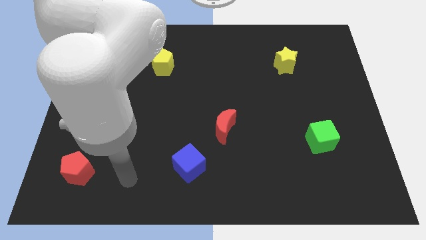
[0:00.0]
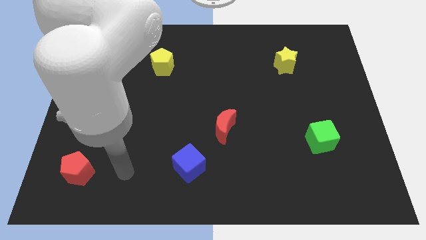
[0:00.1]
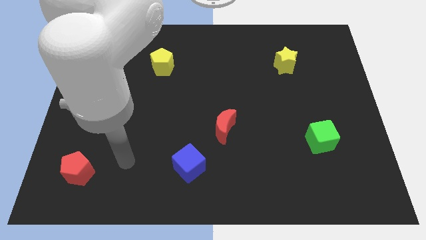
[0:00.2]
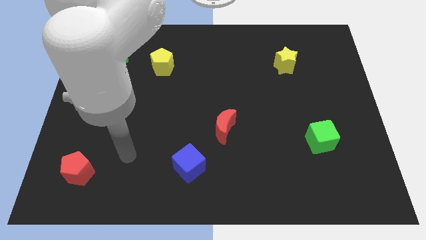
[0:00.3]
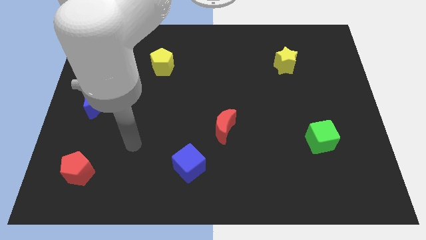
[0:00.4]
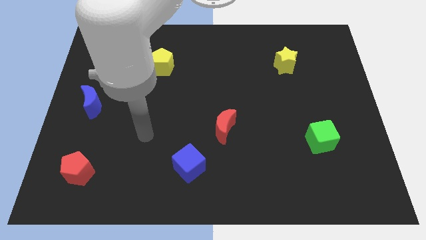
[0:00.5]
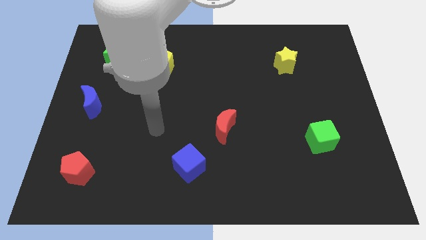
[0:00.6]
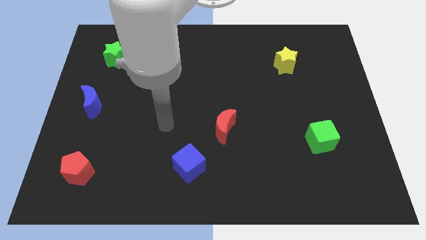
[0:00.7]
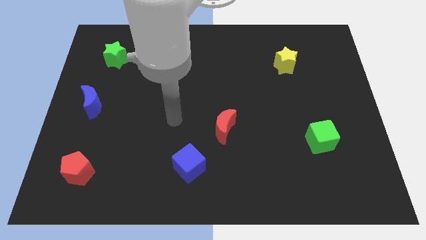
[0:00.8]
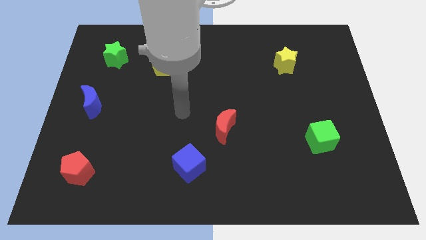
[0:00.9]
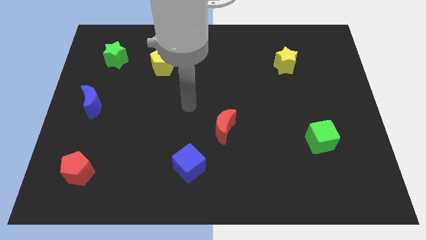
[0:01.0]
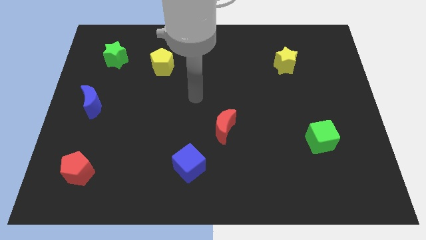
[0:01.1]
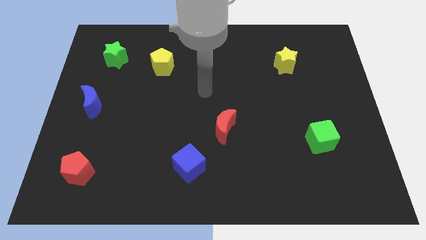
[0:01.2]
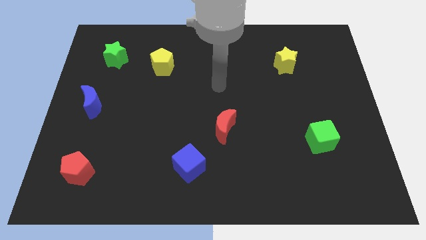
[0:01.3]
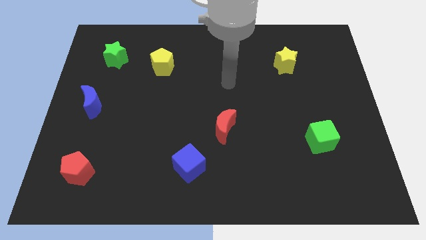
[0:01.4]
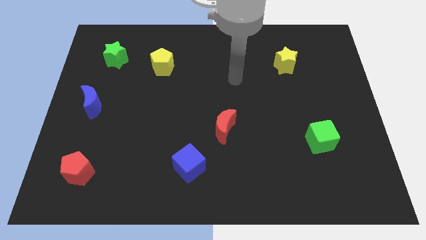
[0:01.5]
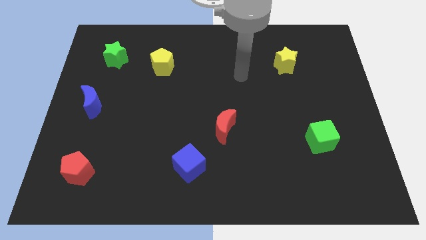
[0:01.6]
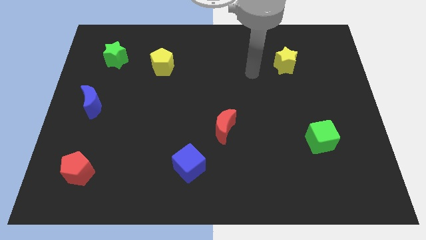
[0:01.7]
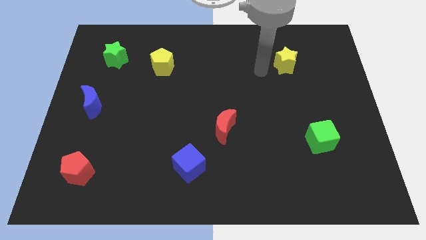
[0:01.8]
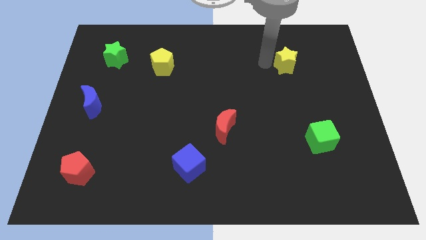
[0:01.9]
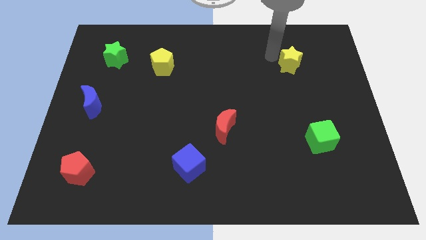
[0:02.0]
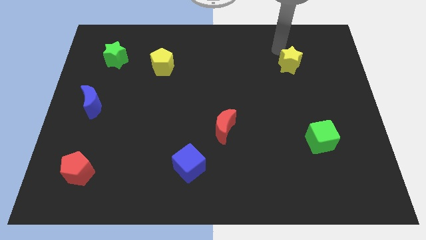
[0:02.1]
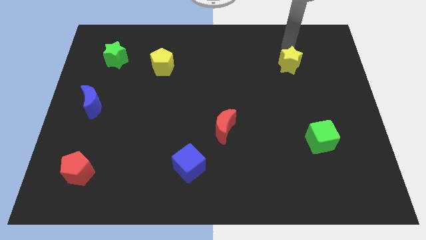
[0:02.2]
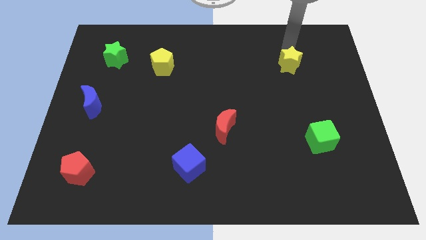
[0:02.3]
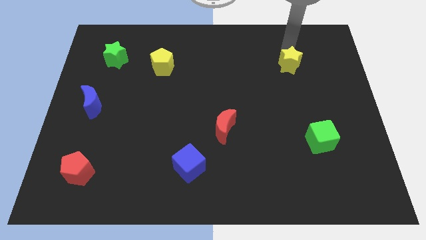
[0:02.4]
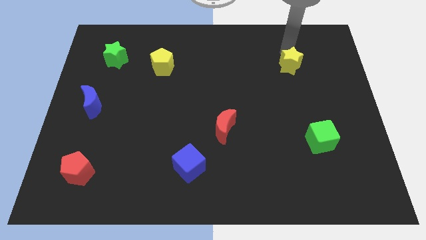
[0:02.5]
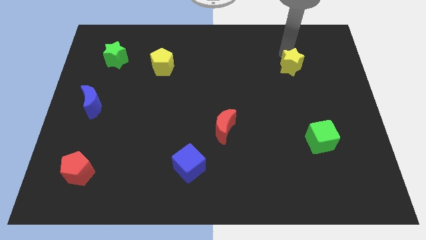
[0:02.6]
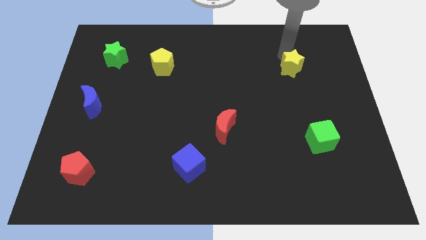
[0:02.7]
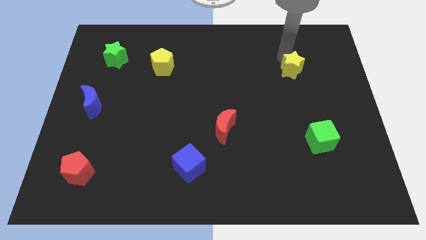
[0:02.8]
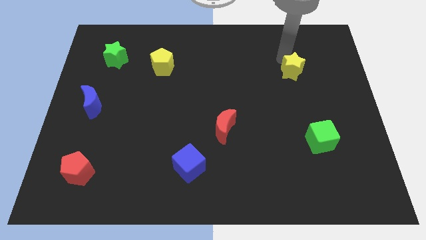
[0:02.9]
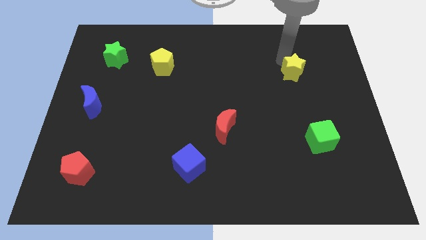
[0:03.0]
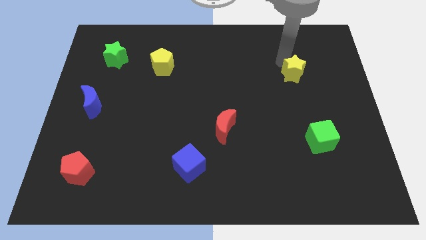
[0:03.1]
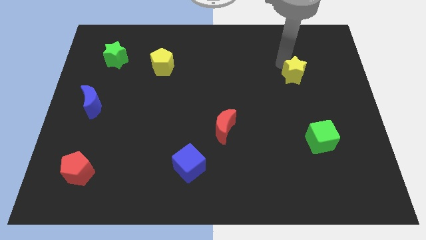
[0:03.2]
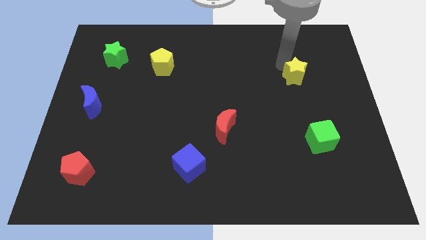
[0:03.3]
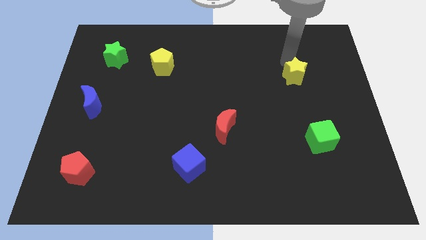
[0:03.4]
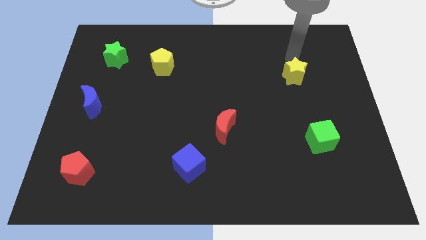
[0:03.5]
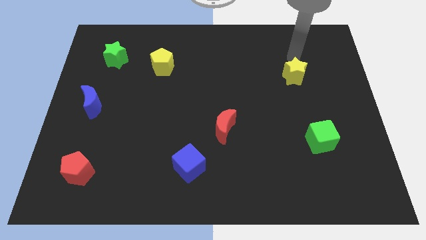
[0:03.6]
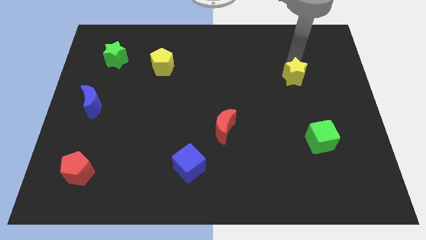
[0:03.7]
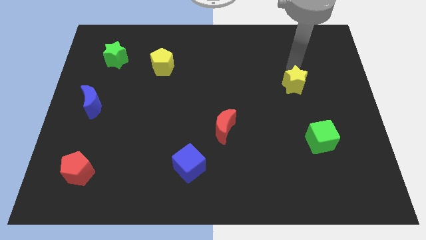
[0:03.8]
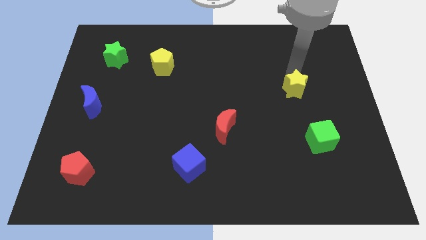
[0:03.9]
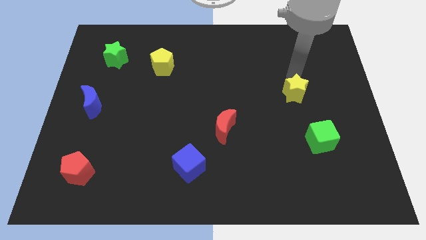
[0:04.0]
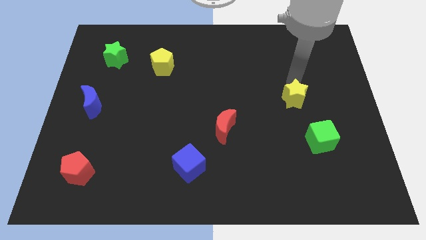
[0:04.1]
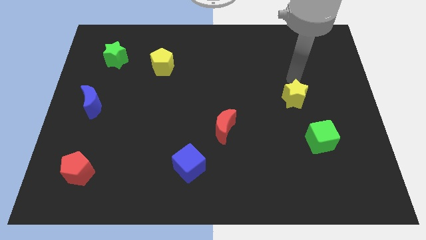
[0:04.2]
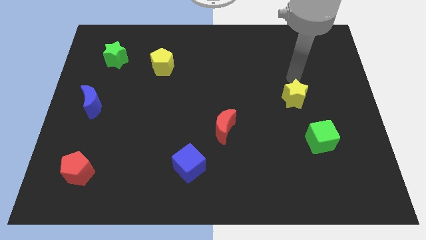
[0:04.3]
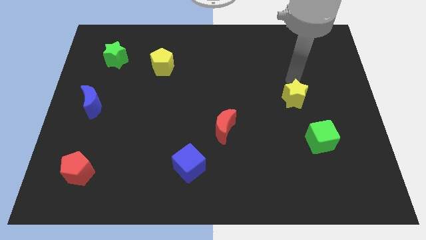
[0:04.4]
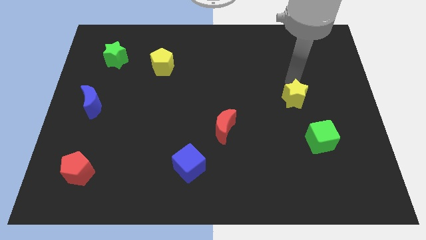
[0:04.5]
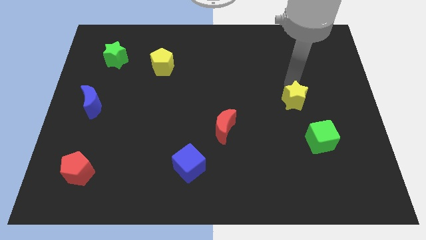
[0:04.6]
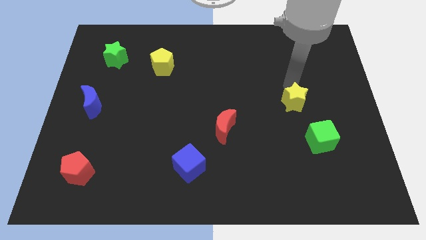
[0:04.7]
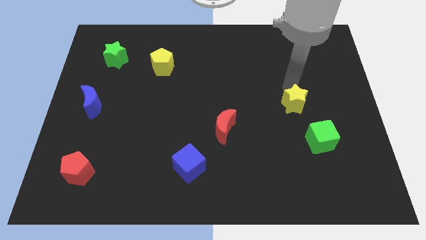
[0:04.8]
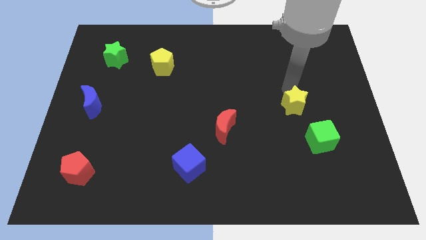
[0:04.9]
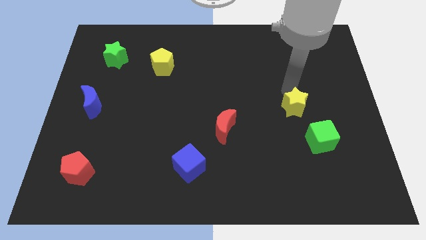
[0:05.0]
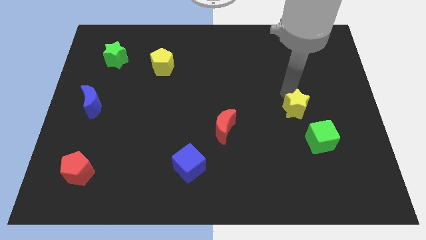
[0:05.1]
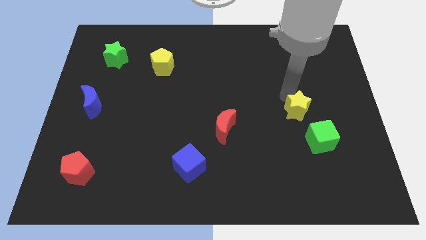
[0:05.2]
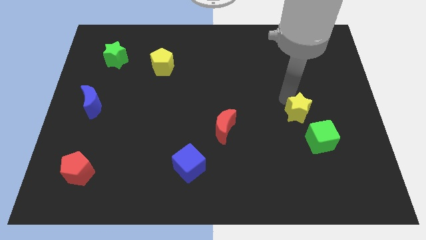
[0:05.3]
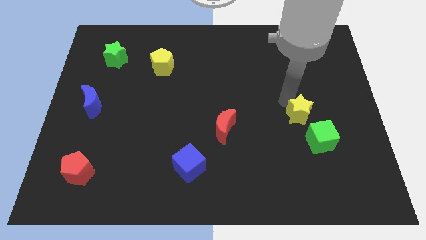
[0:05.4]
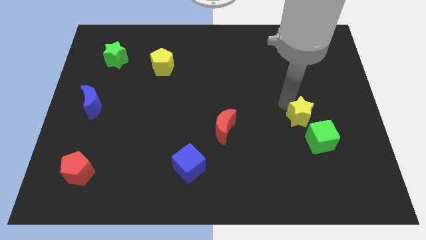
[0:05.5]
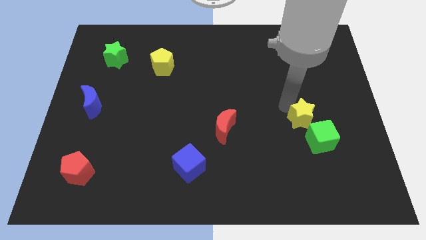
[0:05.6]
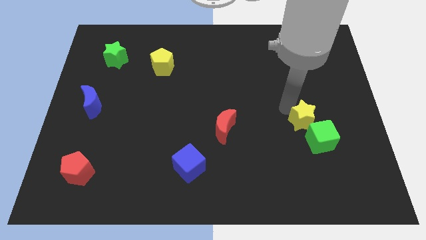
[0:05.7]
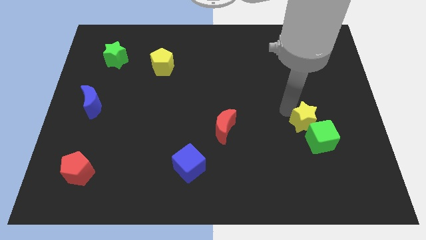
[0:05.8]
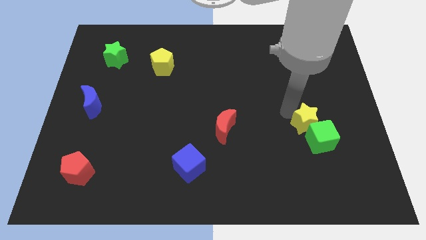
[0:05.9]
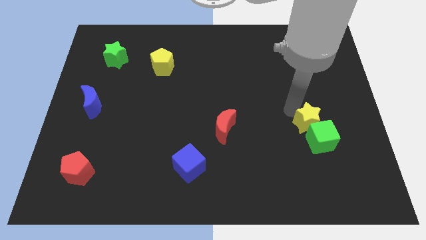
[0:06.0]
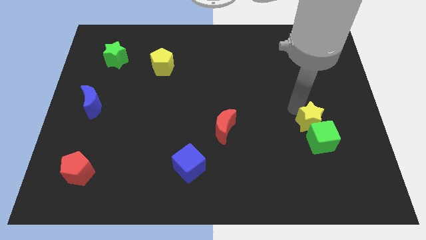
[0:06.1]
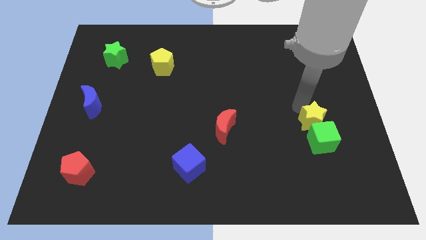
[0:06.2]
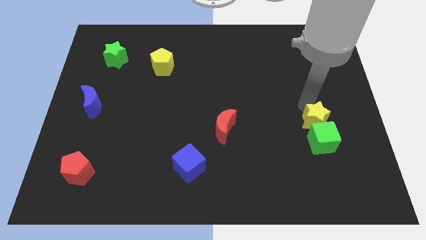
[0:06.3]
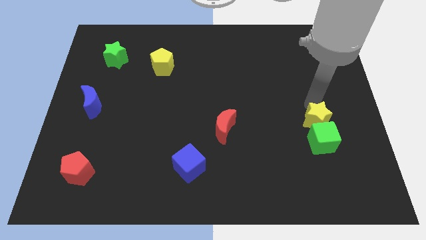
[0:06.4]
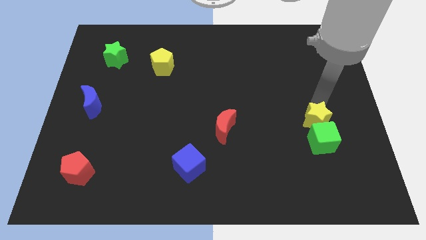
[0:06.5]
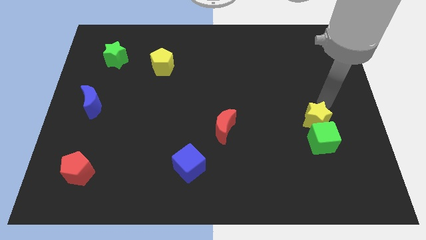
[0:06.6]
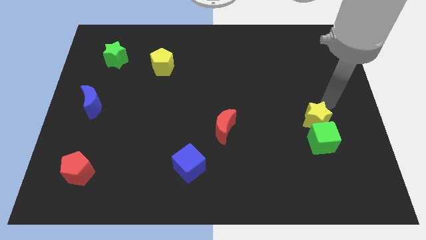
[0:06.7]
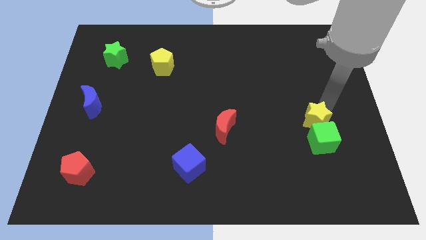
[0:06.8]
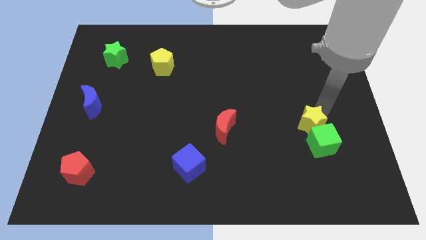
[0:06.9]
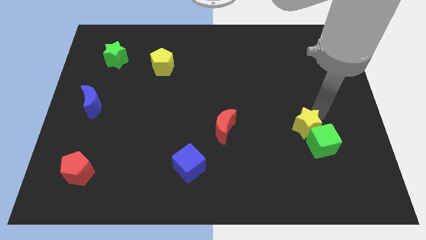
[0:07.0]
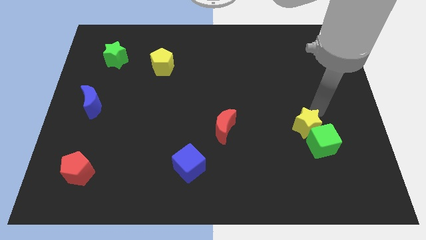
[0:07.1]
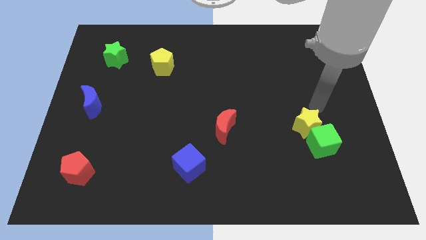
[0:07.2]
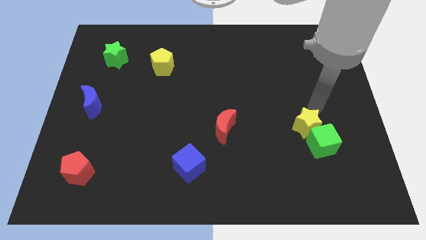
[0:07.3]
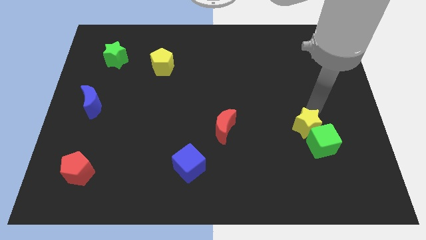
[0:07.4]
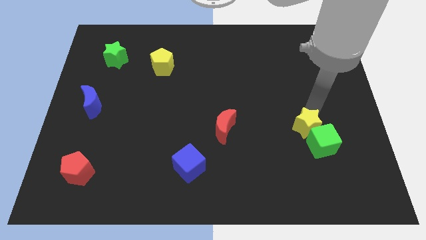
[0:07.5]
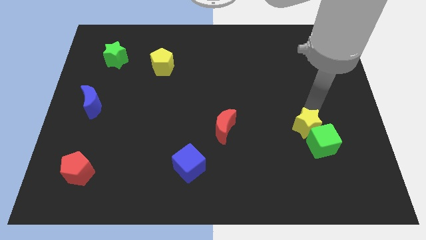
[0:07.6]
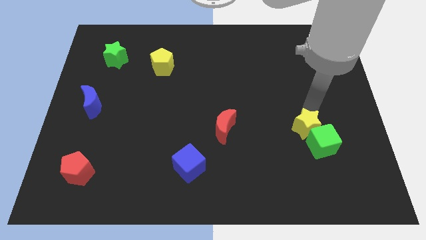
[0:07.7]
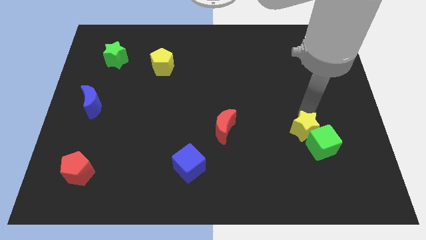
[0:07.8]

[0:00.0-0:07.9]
move the yellow star downwards

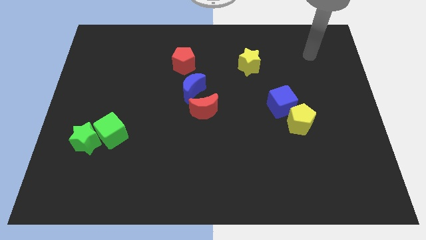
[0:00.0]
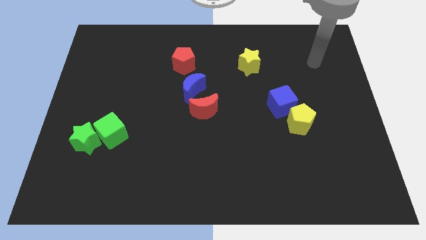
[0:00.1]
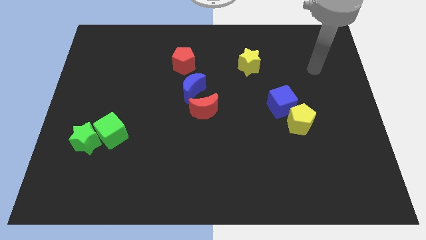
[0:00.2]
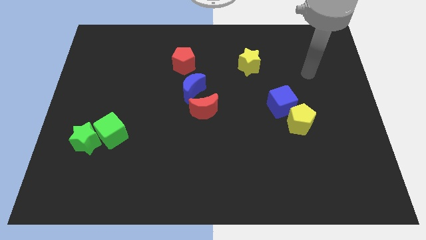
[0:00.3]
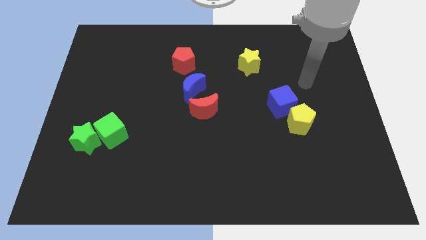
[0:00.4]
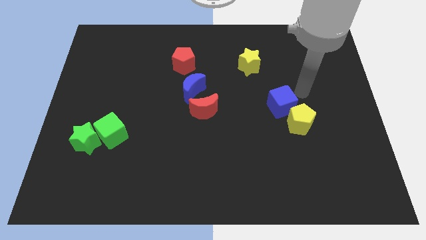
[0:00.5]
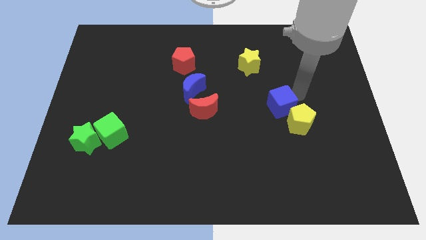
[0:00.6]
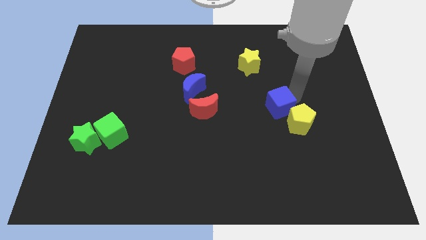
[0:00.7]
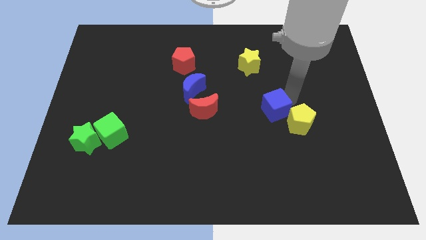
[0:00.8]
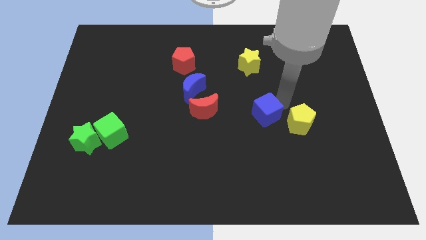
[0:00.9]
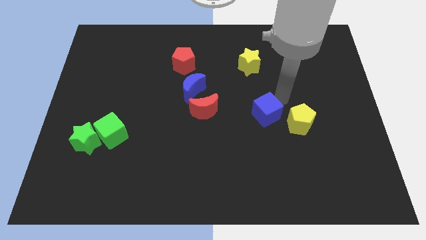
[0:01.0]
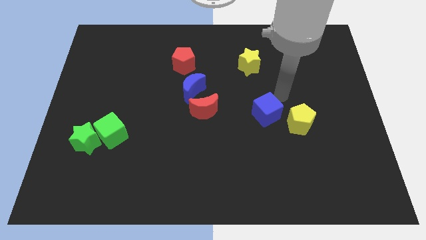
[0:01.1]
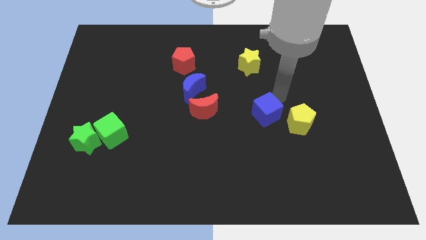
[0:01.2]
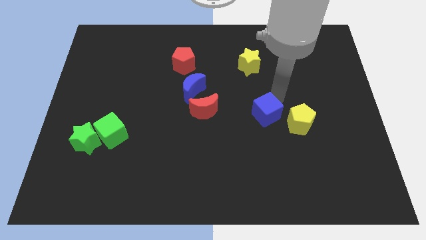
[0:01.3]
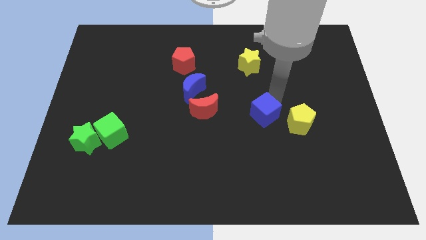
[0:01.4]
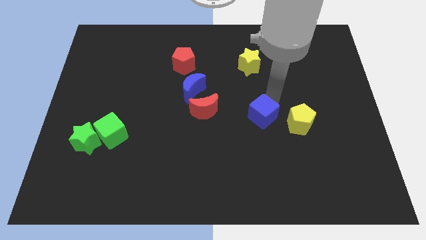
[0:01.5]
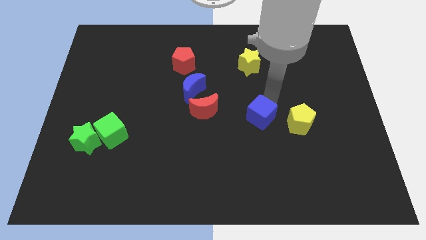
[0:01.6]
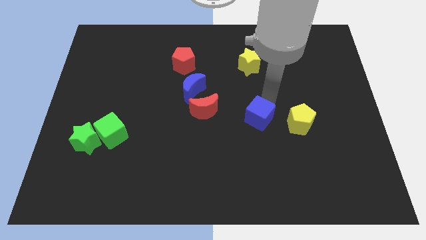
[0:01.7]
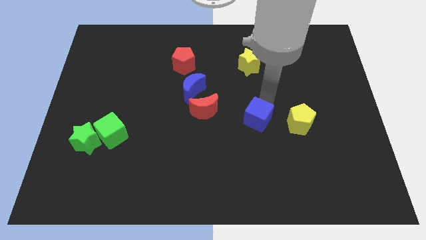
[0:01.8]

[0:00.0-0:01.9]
slide the blue cube downwards and to the left somewhat
